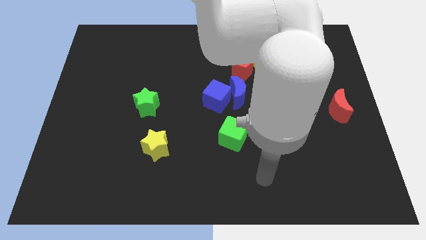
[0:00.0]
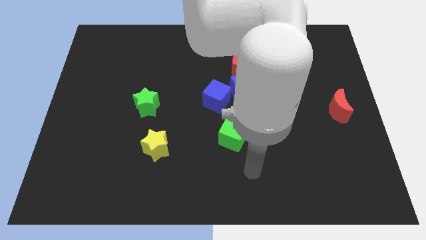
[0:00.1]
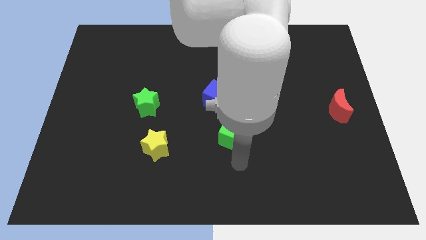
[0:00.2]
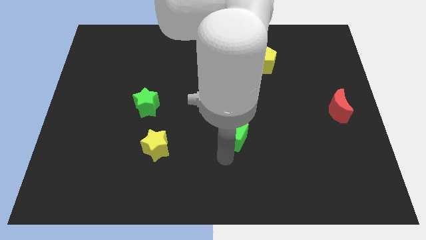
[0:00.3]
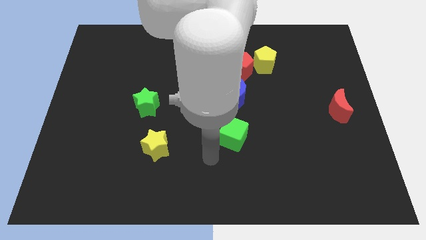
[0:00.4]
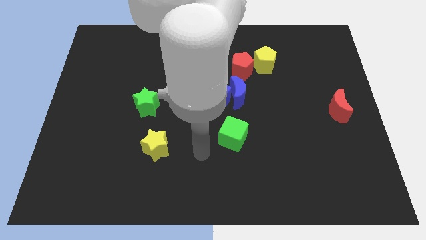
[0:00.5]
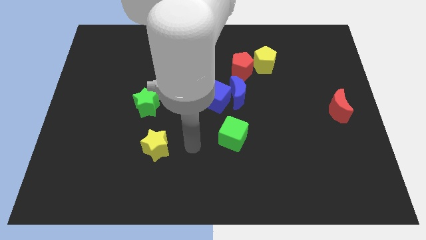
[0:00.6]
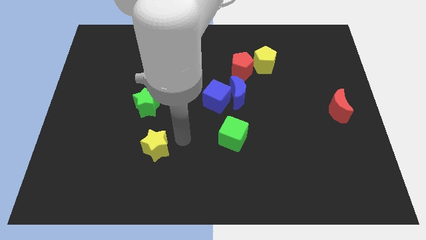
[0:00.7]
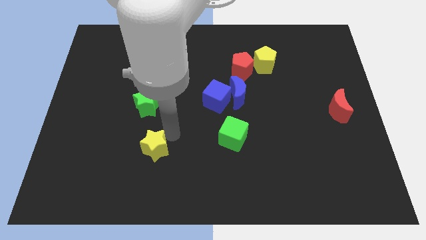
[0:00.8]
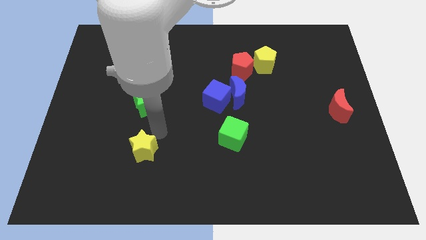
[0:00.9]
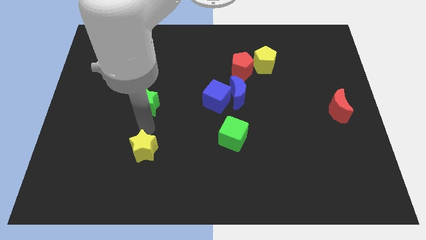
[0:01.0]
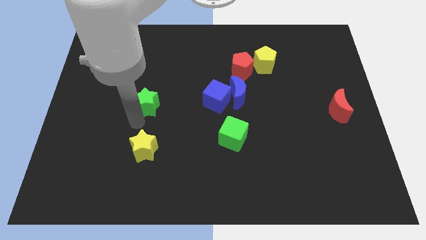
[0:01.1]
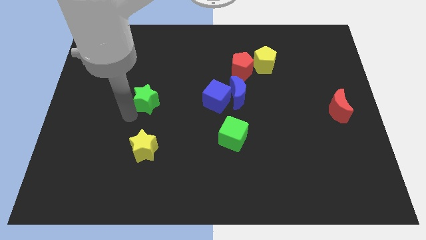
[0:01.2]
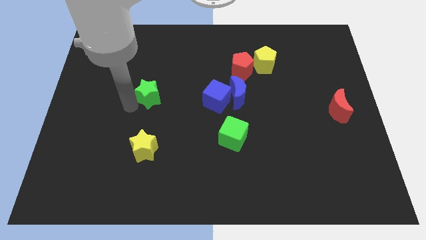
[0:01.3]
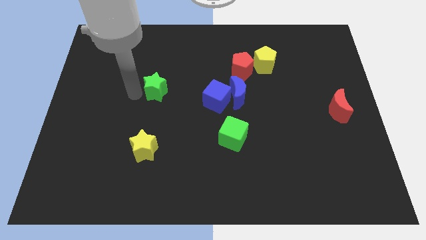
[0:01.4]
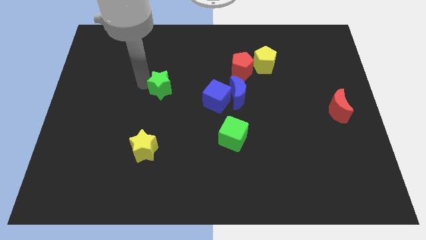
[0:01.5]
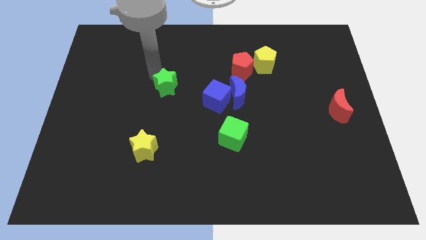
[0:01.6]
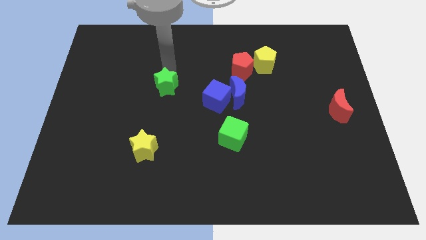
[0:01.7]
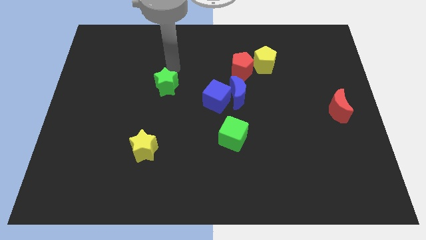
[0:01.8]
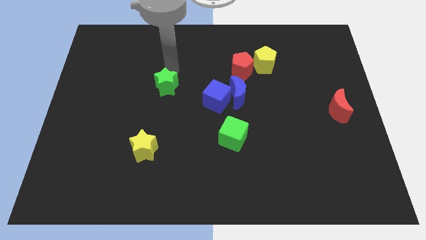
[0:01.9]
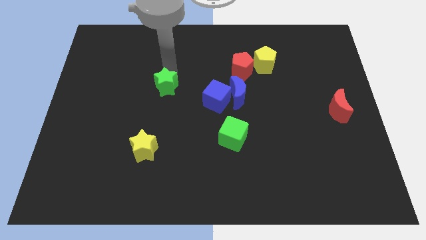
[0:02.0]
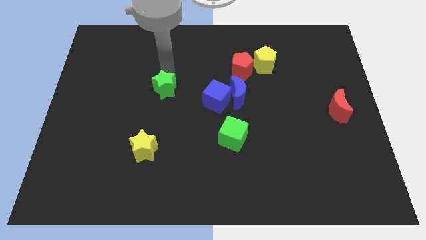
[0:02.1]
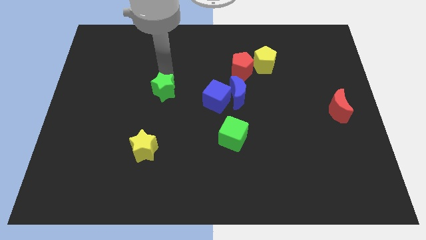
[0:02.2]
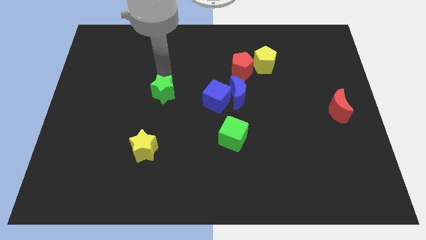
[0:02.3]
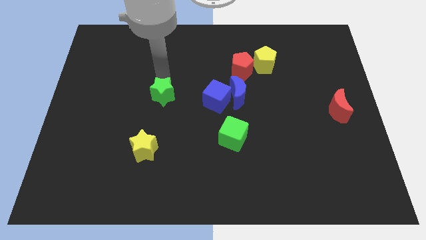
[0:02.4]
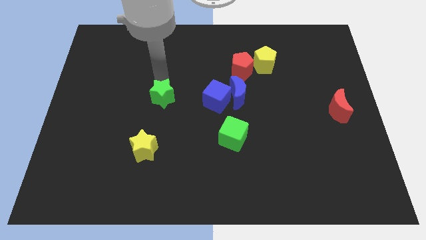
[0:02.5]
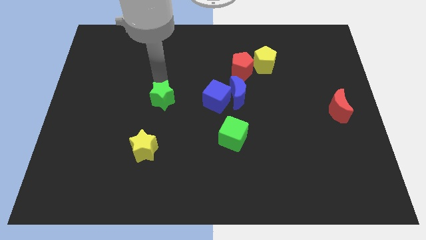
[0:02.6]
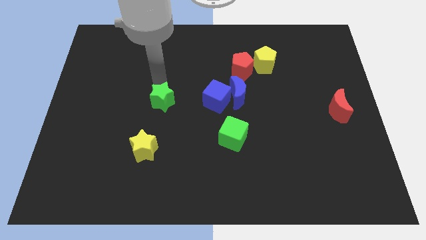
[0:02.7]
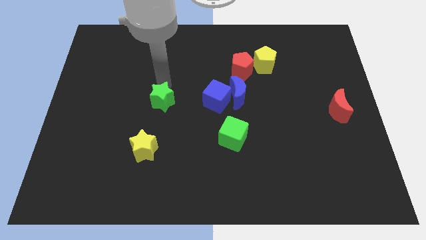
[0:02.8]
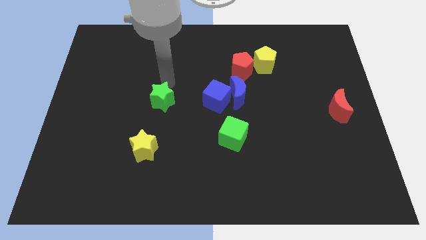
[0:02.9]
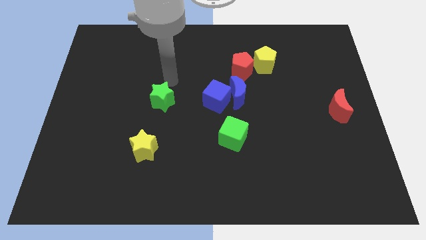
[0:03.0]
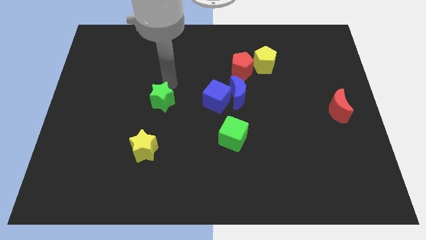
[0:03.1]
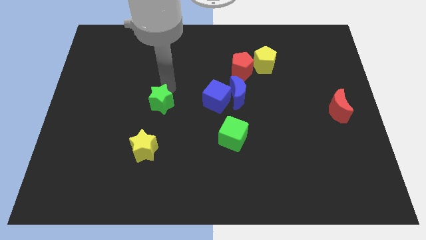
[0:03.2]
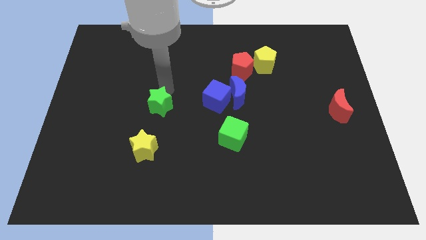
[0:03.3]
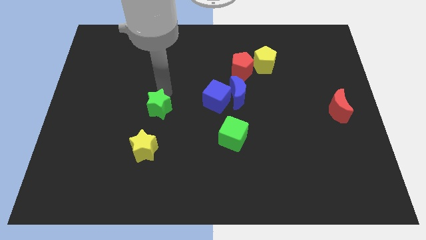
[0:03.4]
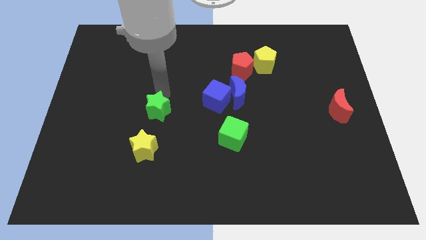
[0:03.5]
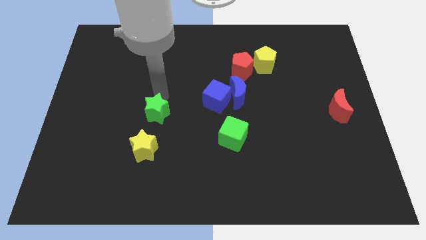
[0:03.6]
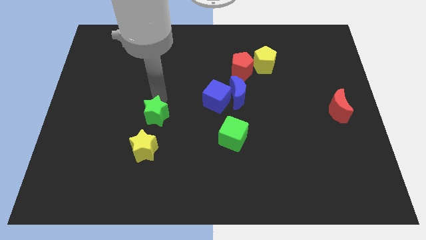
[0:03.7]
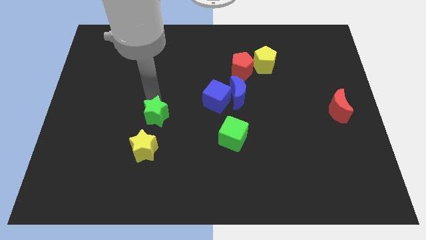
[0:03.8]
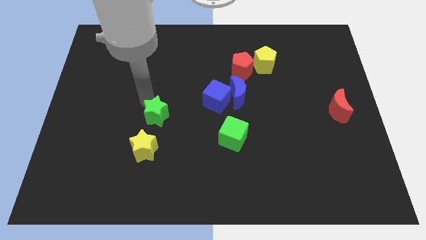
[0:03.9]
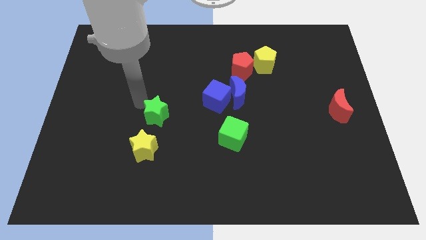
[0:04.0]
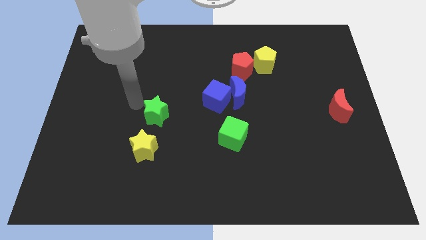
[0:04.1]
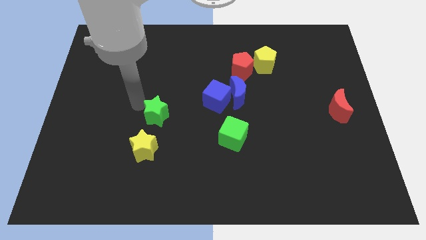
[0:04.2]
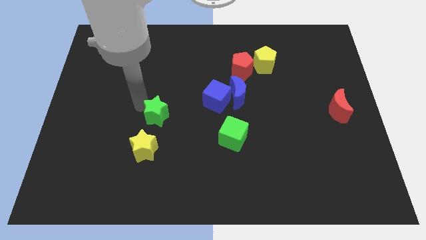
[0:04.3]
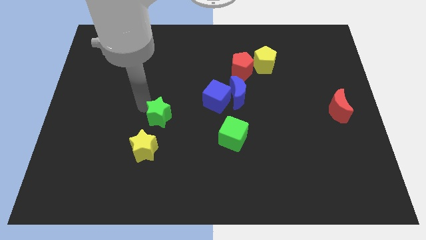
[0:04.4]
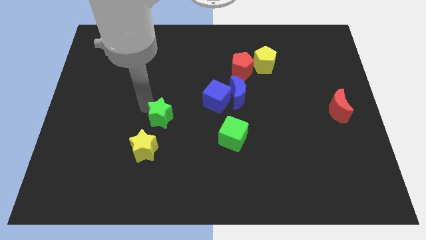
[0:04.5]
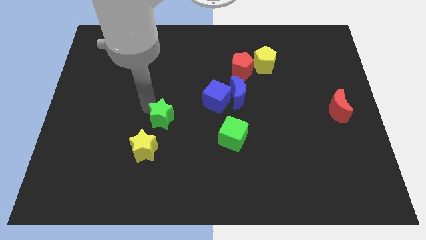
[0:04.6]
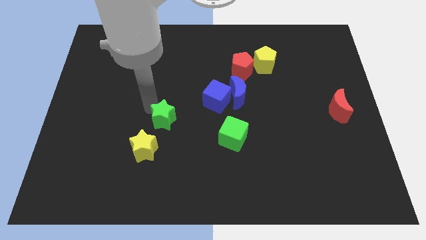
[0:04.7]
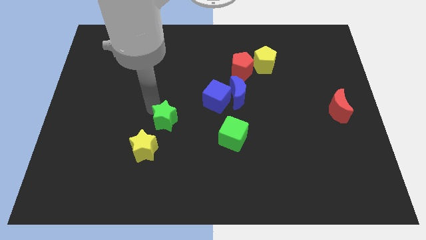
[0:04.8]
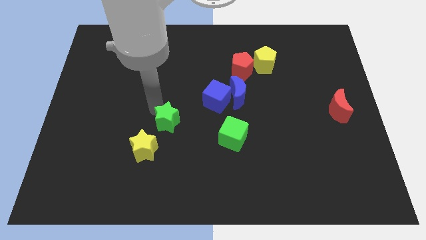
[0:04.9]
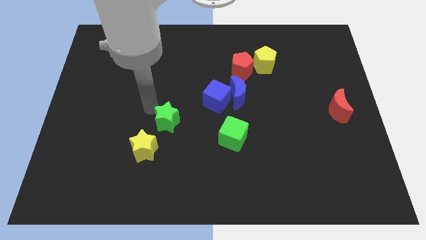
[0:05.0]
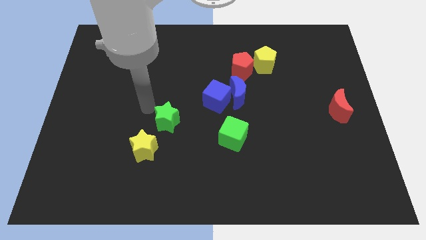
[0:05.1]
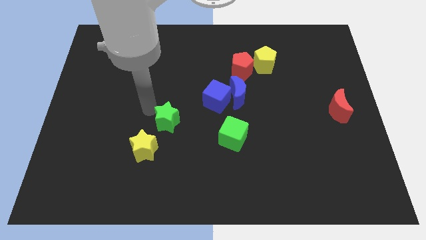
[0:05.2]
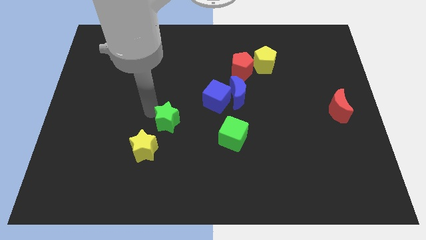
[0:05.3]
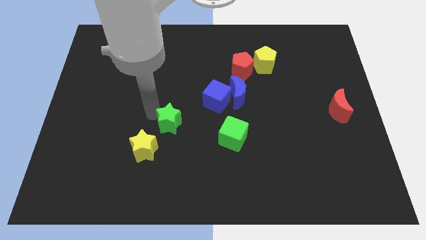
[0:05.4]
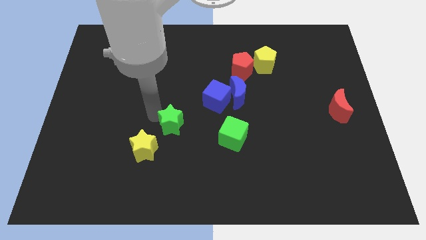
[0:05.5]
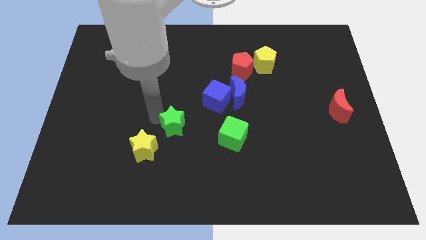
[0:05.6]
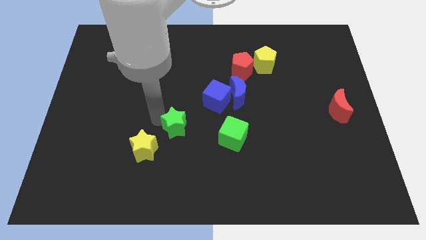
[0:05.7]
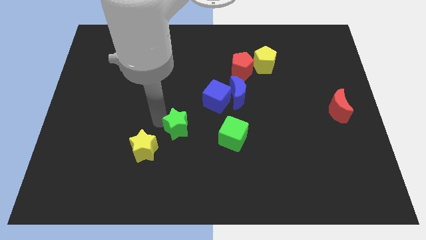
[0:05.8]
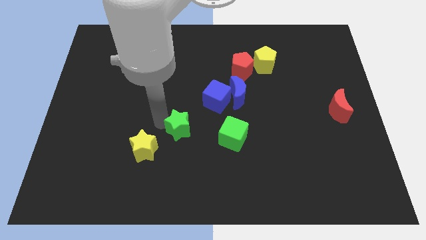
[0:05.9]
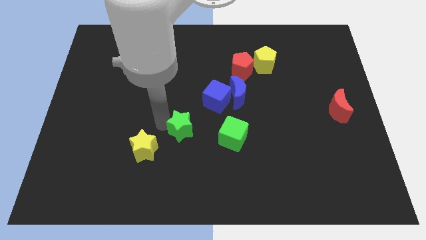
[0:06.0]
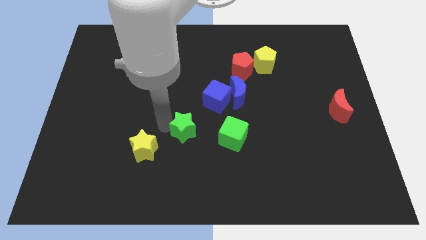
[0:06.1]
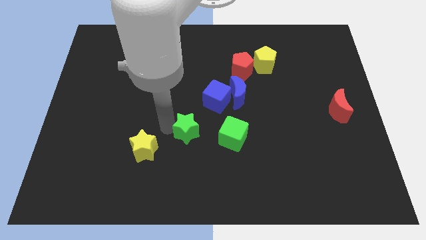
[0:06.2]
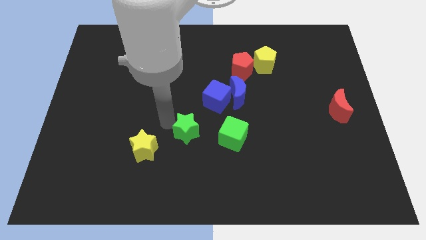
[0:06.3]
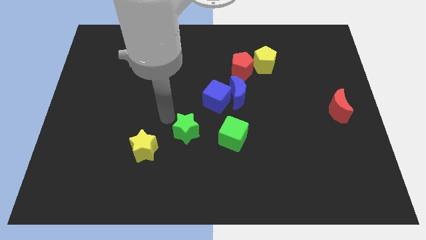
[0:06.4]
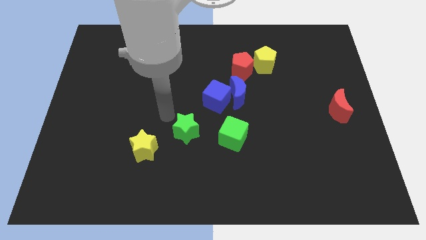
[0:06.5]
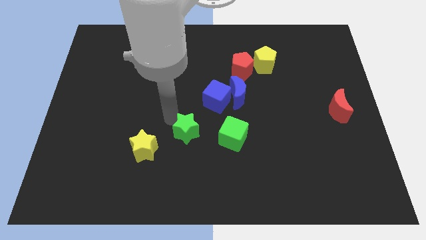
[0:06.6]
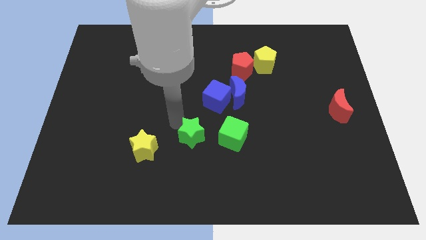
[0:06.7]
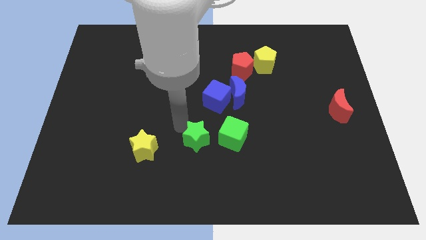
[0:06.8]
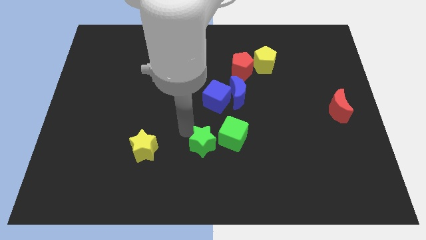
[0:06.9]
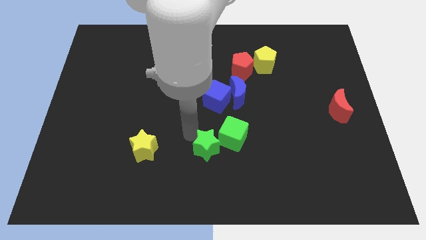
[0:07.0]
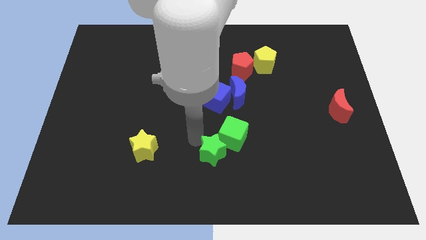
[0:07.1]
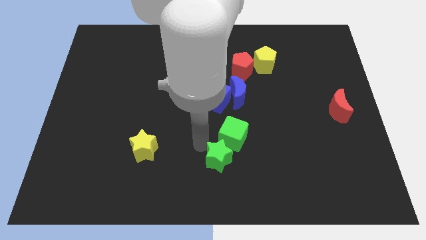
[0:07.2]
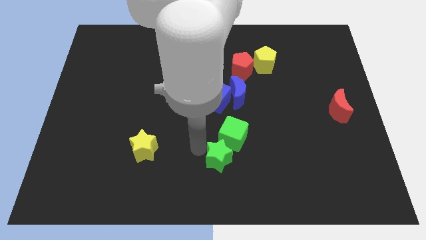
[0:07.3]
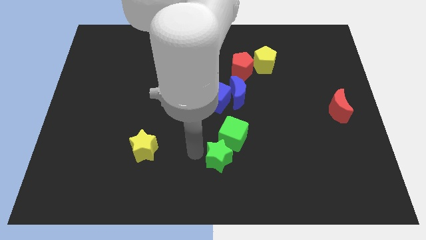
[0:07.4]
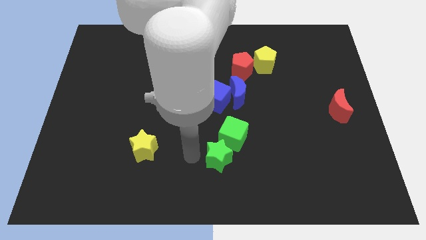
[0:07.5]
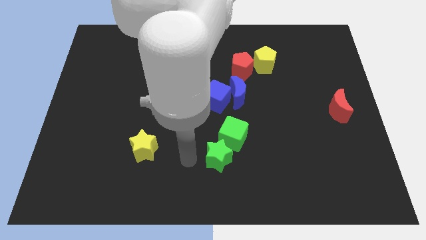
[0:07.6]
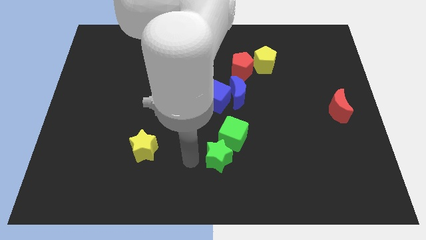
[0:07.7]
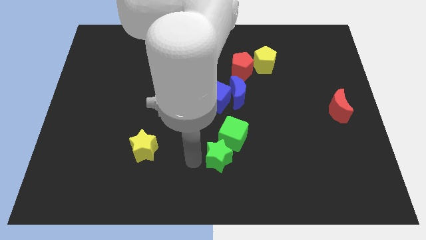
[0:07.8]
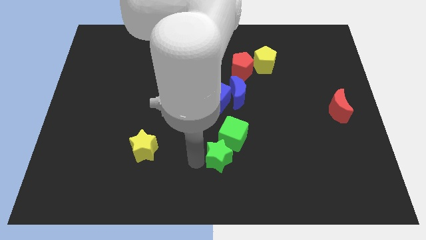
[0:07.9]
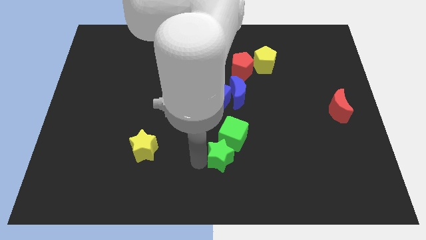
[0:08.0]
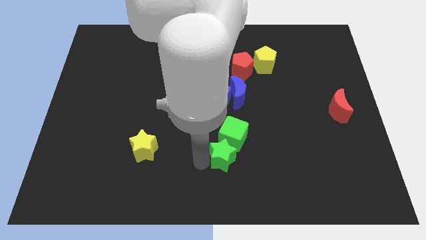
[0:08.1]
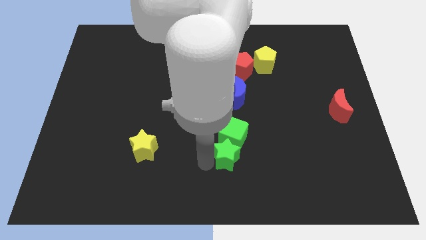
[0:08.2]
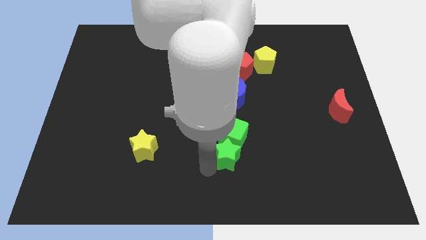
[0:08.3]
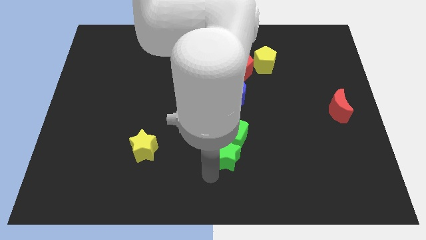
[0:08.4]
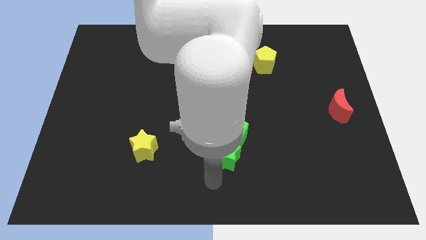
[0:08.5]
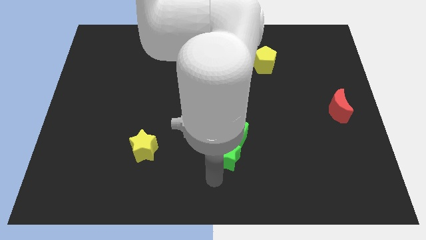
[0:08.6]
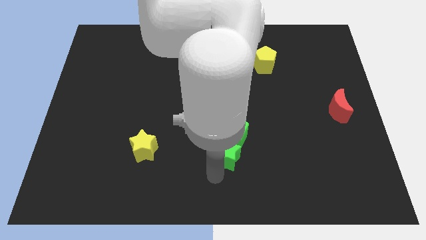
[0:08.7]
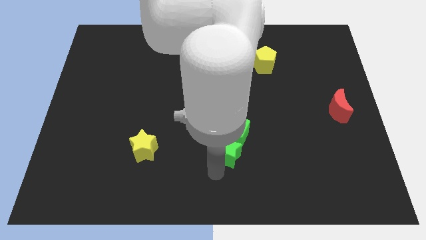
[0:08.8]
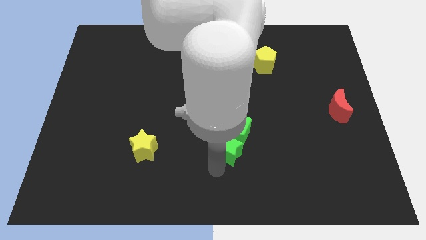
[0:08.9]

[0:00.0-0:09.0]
put the green star to the bottom side of the blue moon
